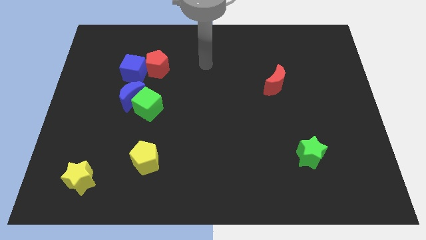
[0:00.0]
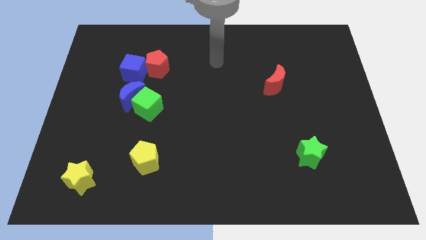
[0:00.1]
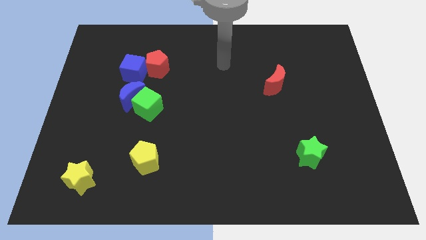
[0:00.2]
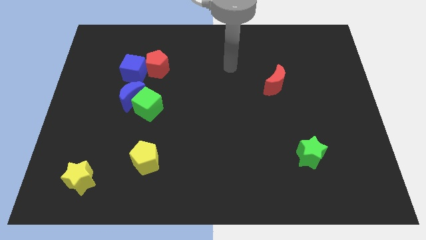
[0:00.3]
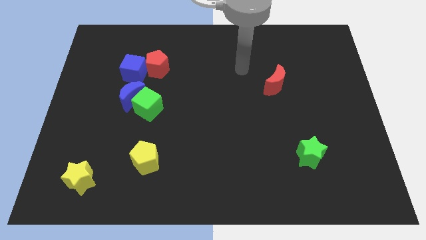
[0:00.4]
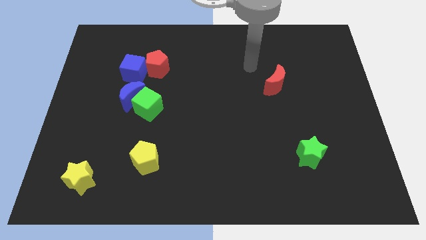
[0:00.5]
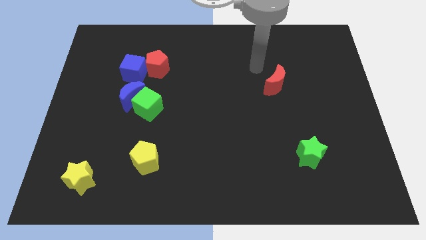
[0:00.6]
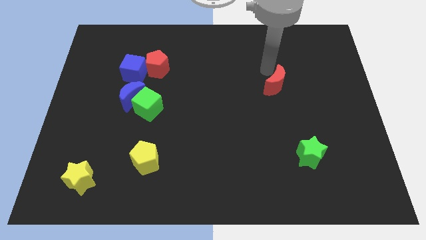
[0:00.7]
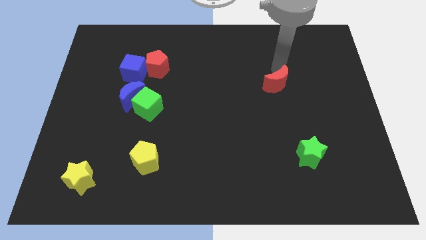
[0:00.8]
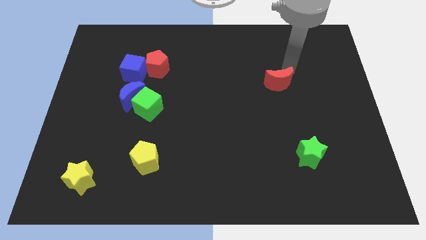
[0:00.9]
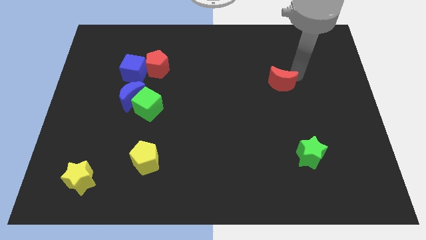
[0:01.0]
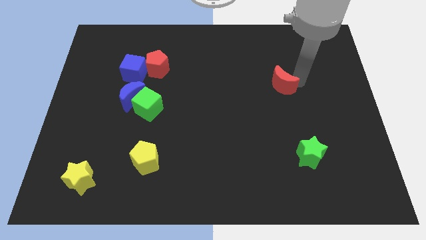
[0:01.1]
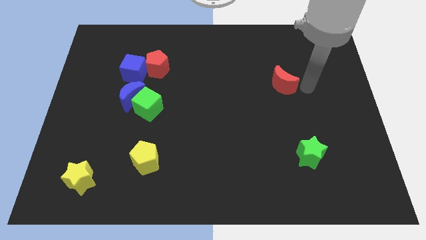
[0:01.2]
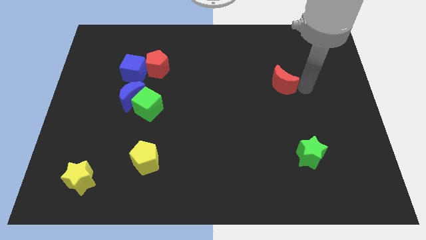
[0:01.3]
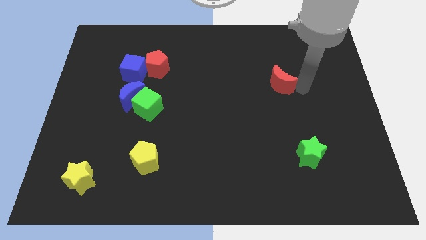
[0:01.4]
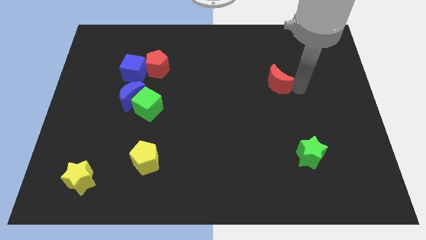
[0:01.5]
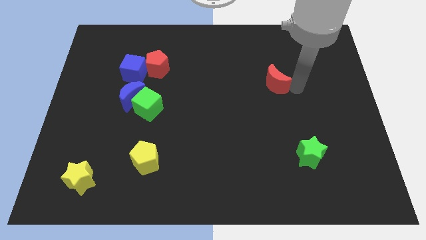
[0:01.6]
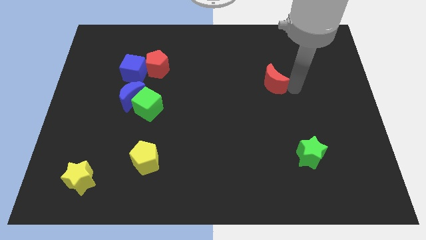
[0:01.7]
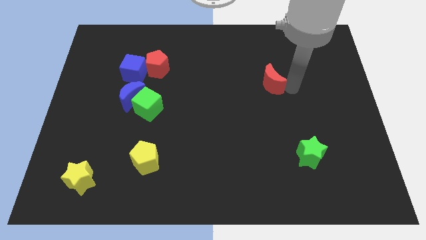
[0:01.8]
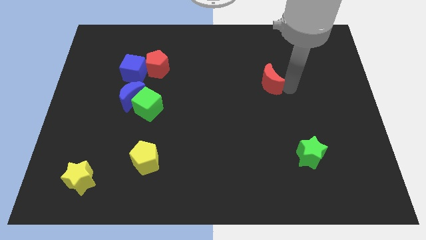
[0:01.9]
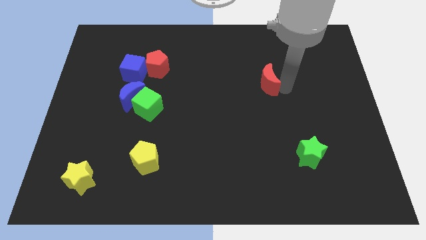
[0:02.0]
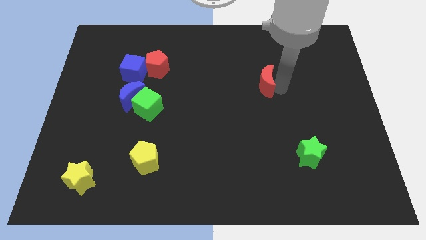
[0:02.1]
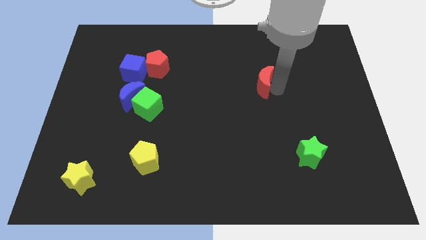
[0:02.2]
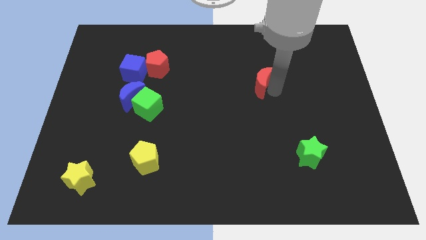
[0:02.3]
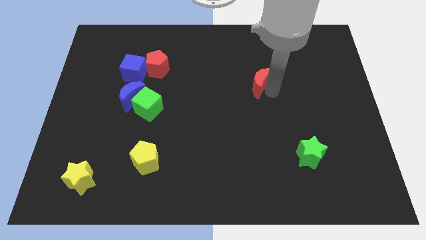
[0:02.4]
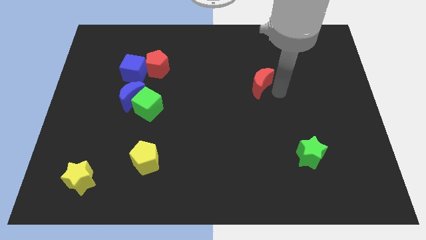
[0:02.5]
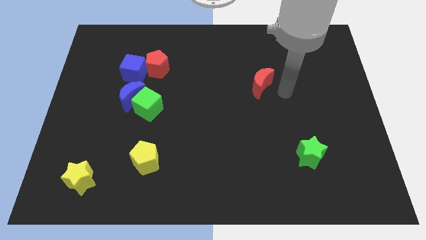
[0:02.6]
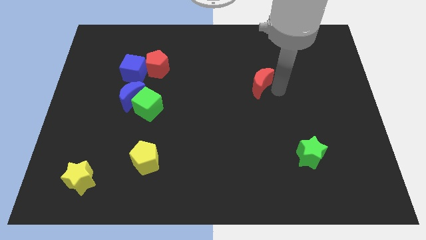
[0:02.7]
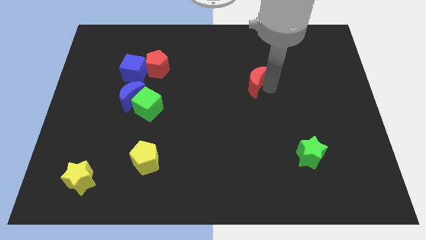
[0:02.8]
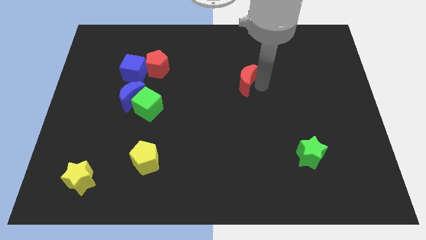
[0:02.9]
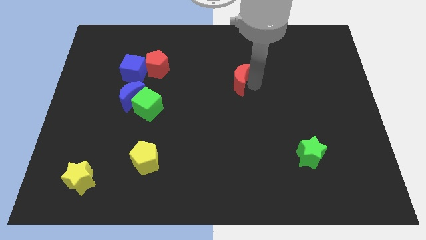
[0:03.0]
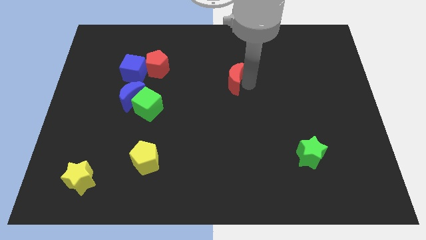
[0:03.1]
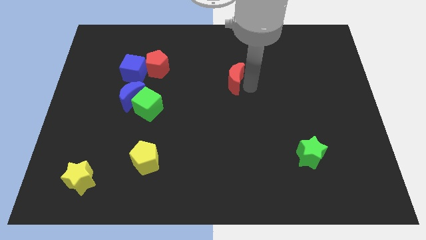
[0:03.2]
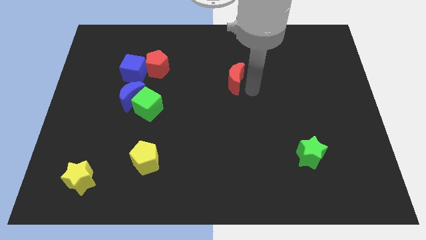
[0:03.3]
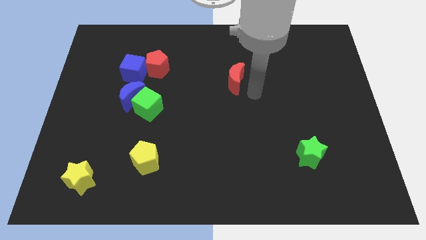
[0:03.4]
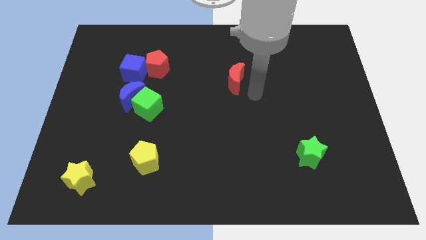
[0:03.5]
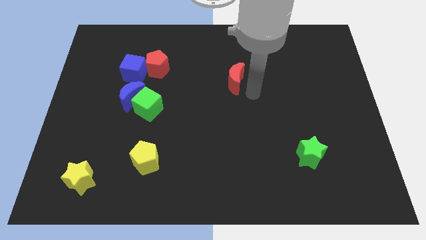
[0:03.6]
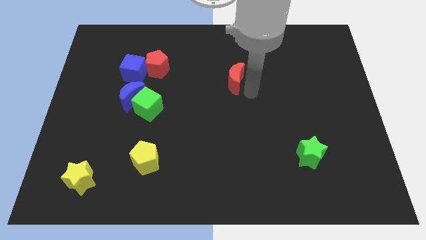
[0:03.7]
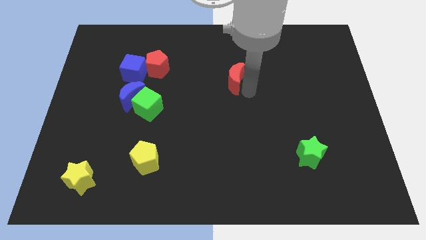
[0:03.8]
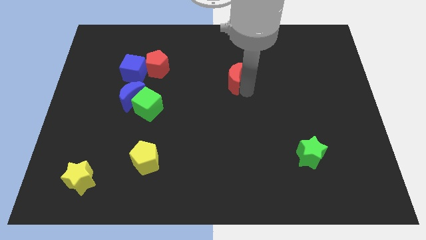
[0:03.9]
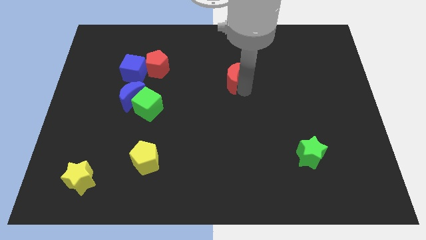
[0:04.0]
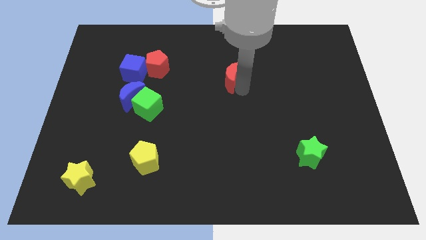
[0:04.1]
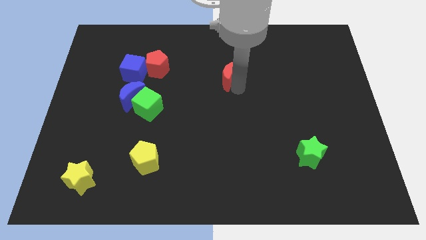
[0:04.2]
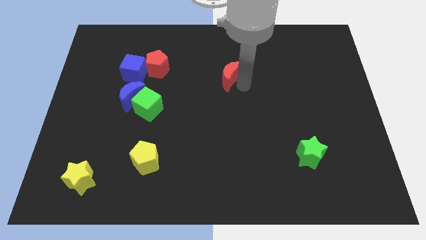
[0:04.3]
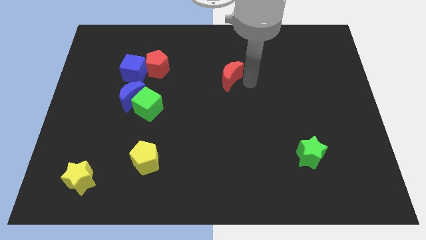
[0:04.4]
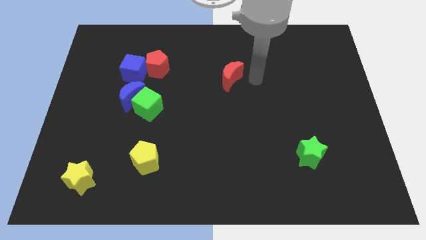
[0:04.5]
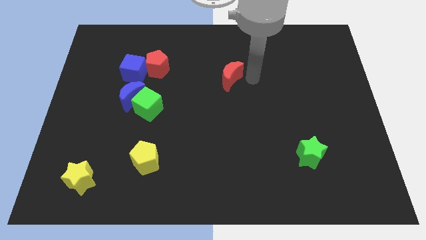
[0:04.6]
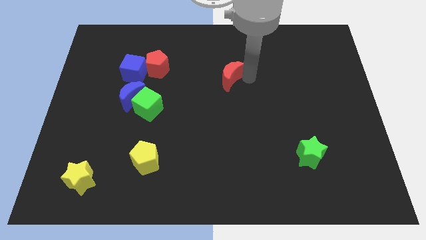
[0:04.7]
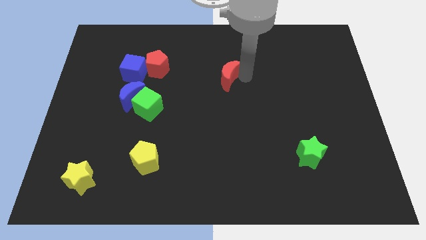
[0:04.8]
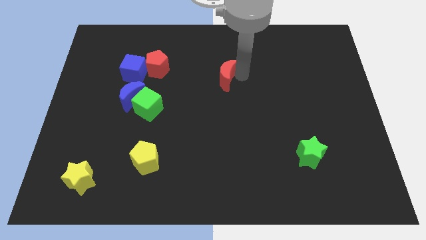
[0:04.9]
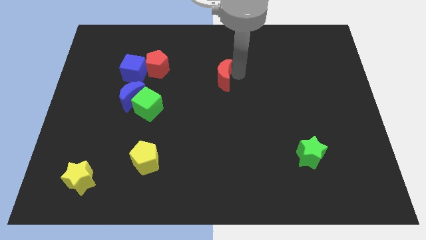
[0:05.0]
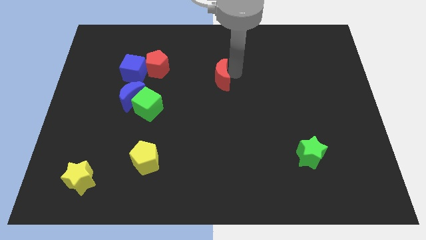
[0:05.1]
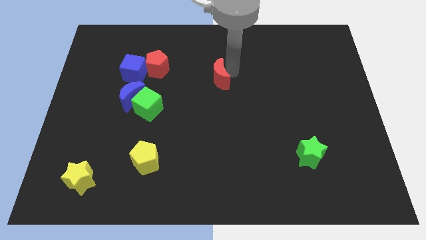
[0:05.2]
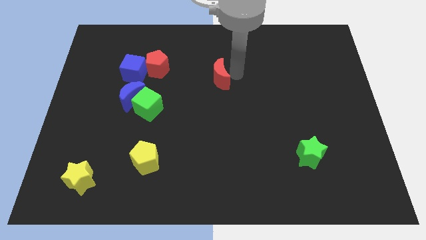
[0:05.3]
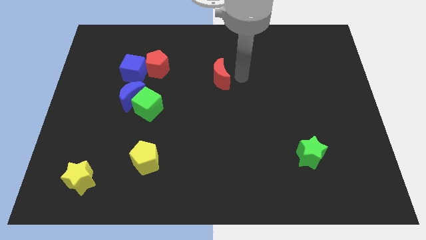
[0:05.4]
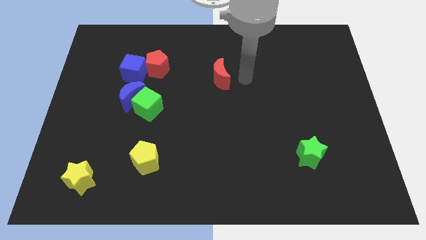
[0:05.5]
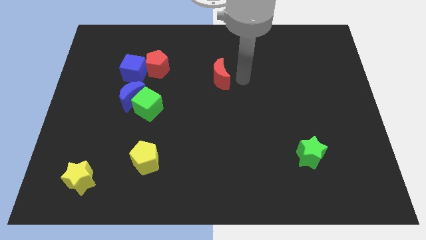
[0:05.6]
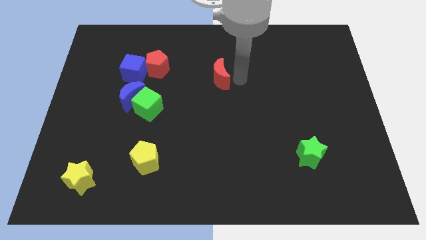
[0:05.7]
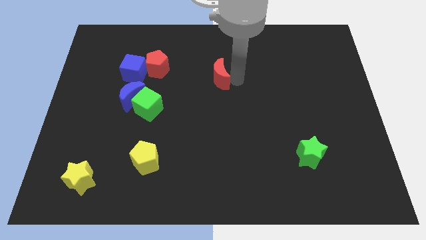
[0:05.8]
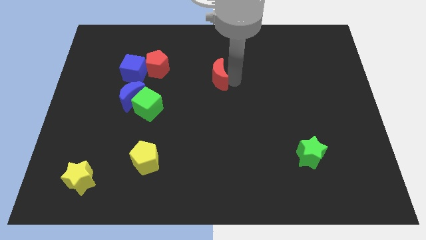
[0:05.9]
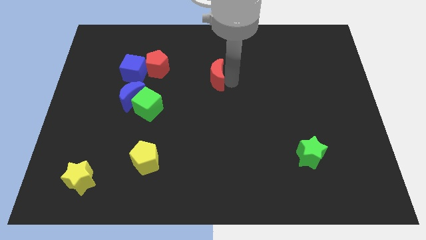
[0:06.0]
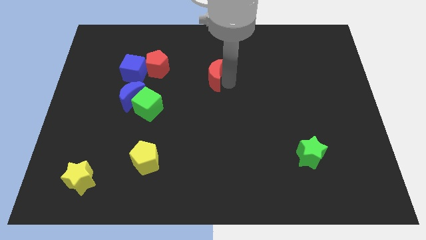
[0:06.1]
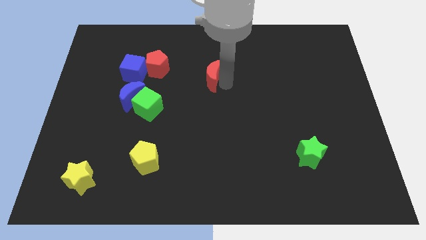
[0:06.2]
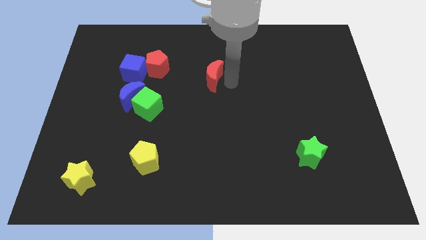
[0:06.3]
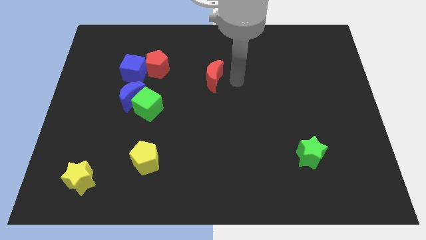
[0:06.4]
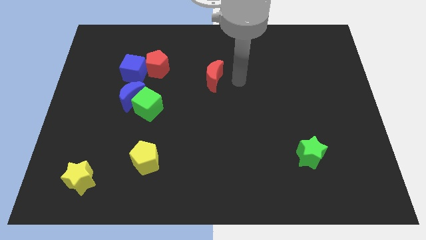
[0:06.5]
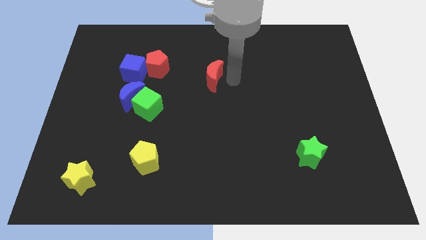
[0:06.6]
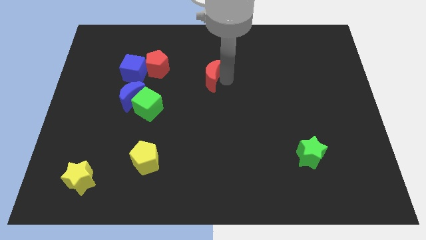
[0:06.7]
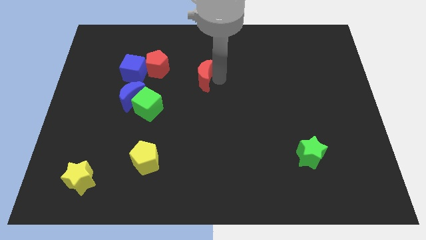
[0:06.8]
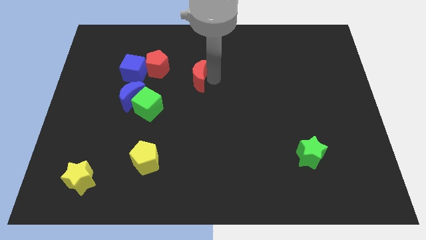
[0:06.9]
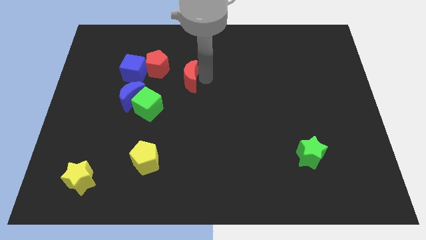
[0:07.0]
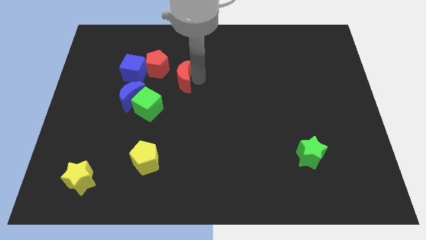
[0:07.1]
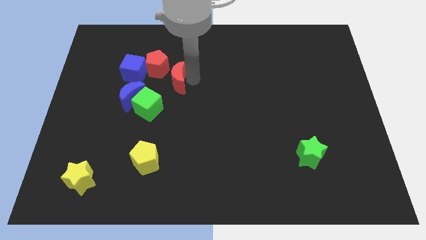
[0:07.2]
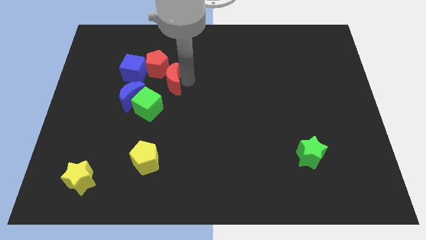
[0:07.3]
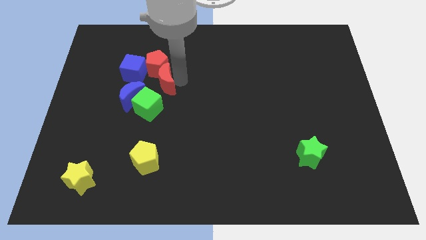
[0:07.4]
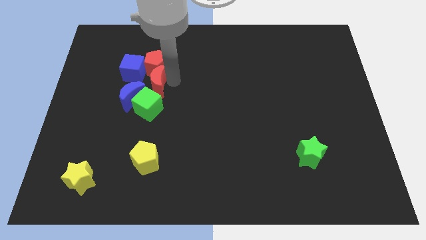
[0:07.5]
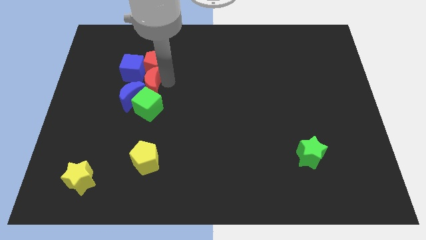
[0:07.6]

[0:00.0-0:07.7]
put the red moon next to the blue moon
